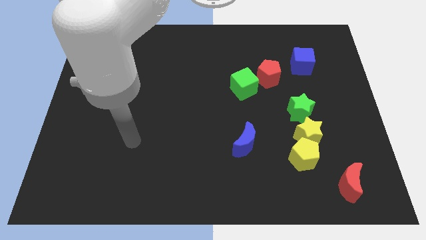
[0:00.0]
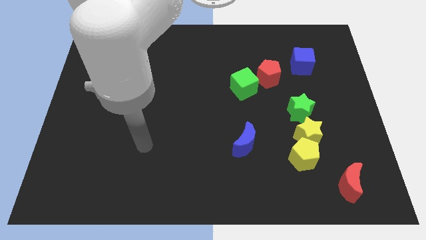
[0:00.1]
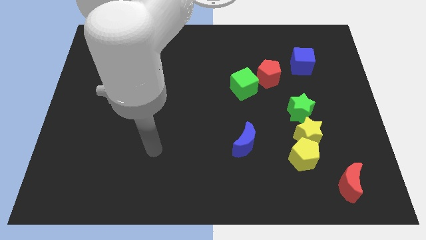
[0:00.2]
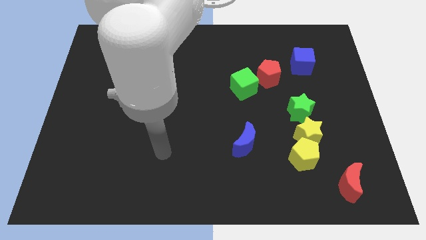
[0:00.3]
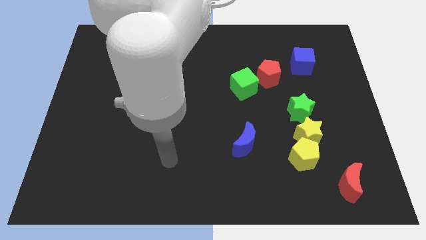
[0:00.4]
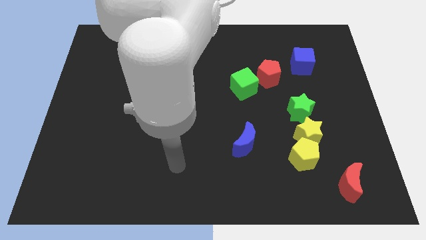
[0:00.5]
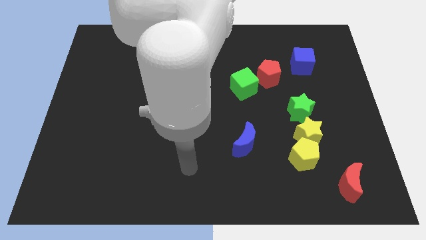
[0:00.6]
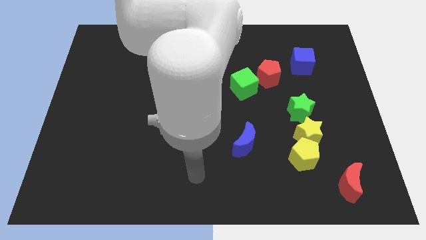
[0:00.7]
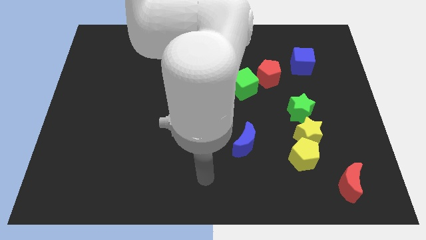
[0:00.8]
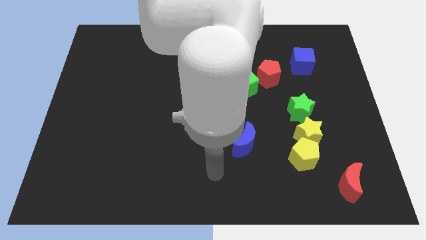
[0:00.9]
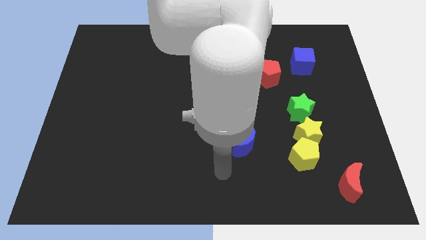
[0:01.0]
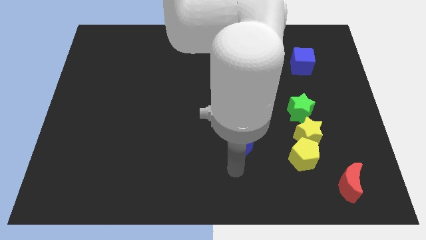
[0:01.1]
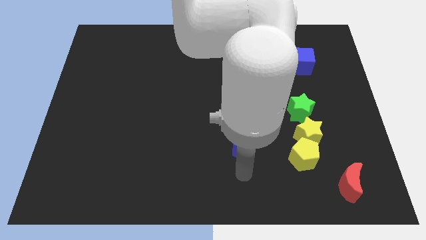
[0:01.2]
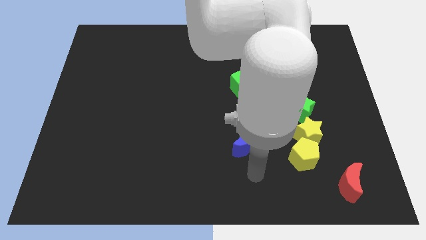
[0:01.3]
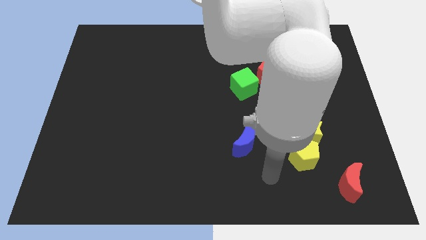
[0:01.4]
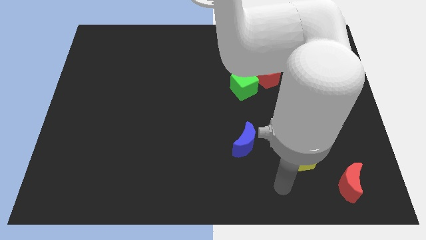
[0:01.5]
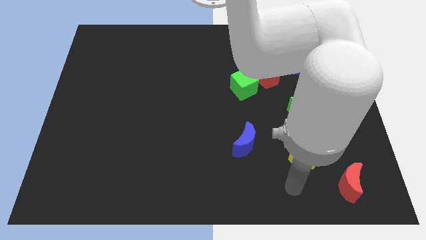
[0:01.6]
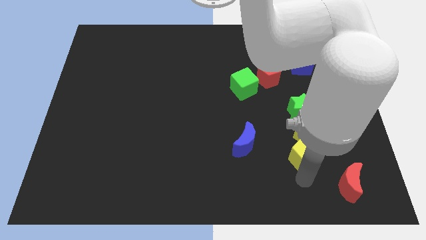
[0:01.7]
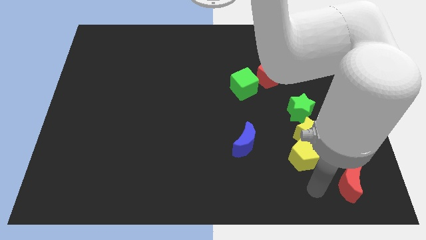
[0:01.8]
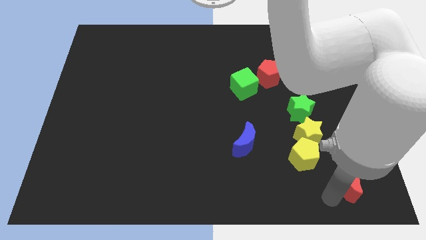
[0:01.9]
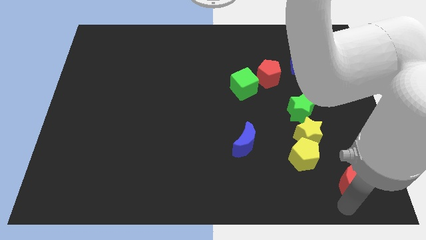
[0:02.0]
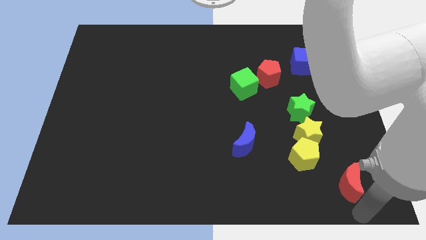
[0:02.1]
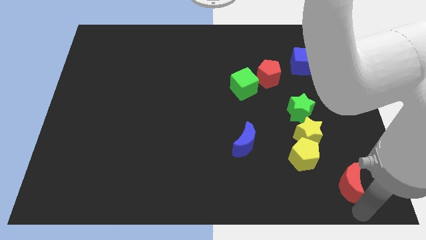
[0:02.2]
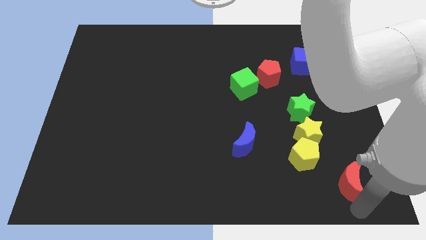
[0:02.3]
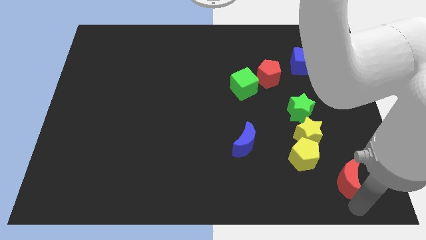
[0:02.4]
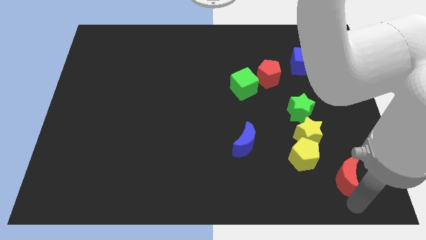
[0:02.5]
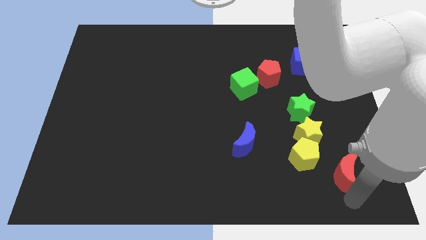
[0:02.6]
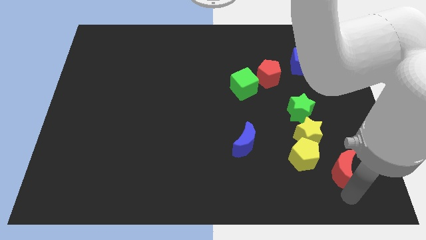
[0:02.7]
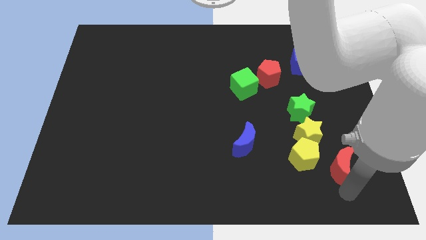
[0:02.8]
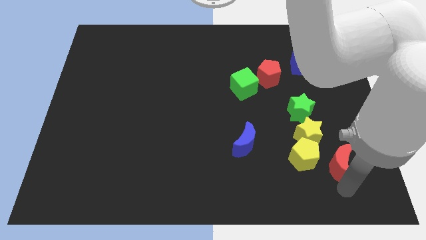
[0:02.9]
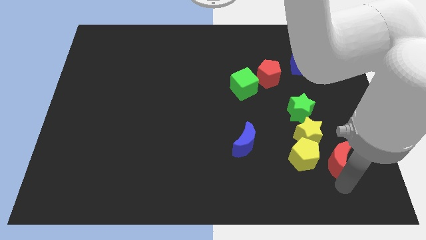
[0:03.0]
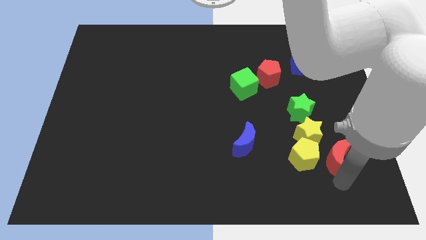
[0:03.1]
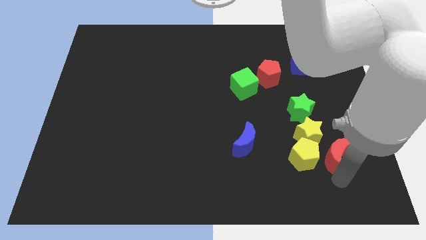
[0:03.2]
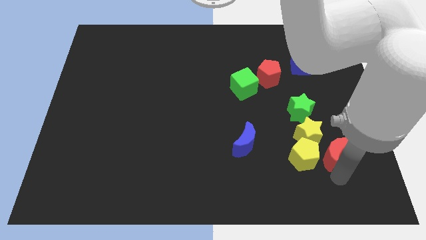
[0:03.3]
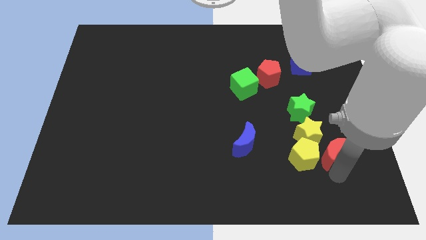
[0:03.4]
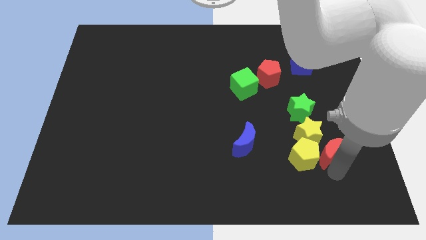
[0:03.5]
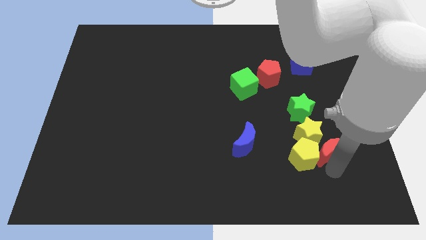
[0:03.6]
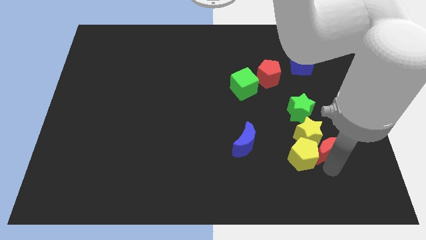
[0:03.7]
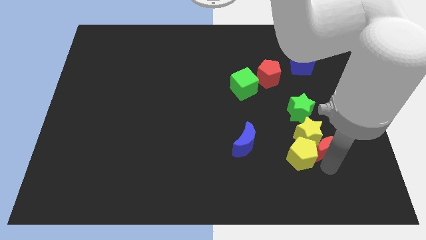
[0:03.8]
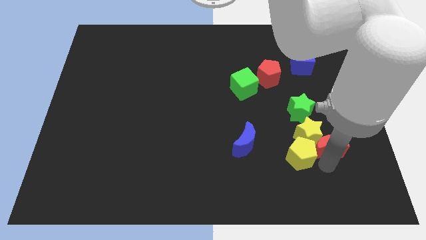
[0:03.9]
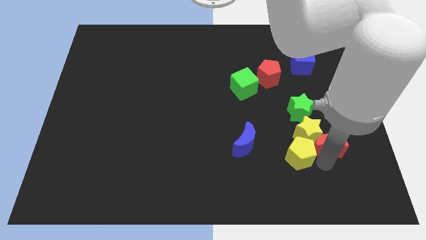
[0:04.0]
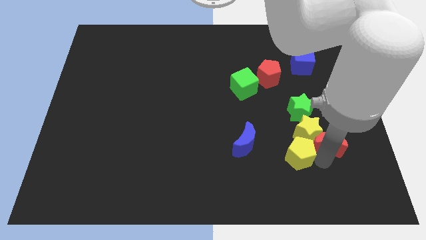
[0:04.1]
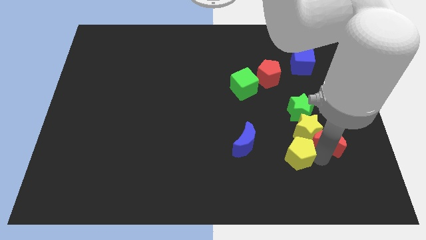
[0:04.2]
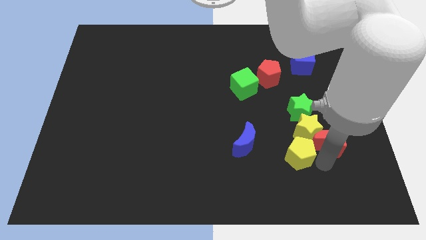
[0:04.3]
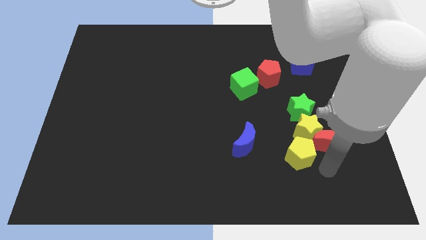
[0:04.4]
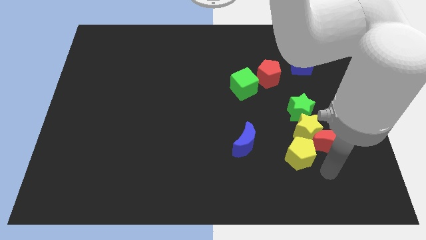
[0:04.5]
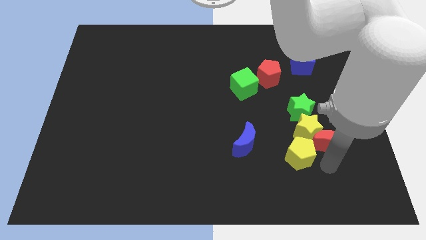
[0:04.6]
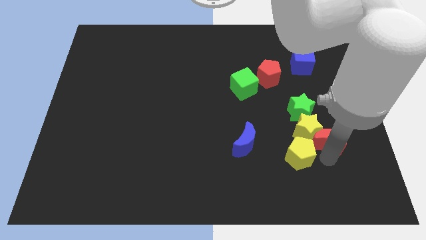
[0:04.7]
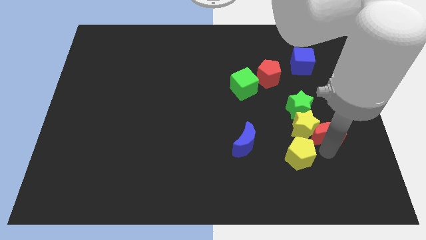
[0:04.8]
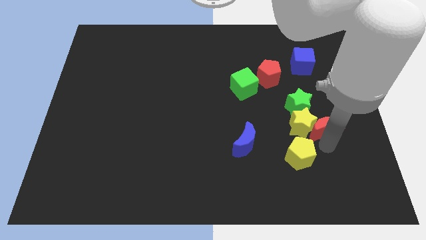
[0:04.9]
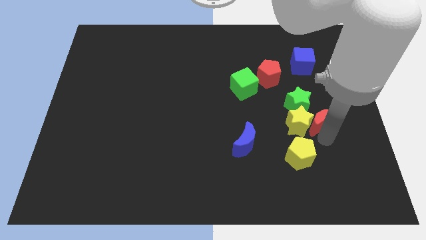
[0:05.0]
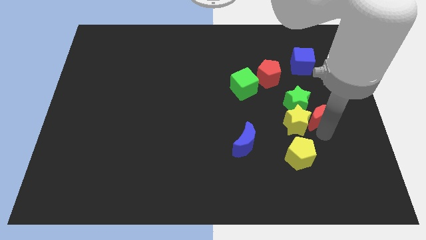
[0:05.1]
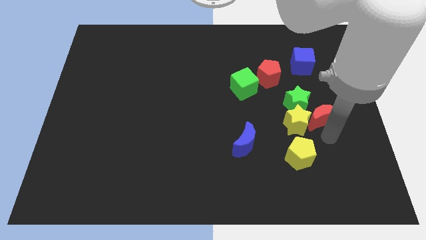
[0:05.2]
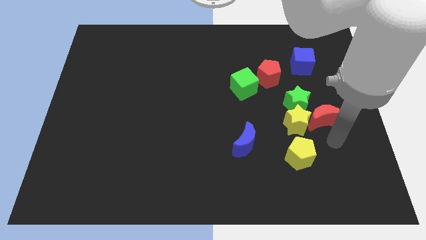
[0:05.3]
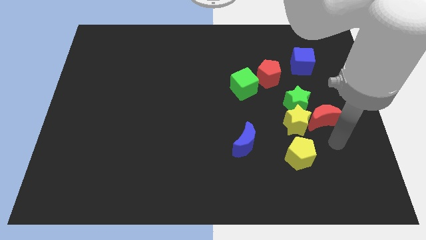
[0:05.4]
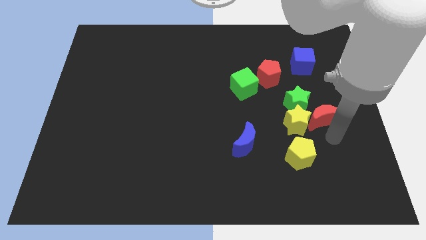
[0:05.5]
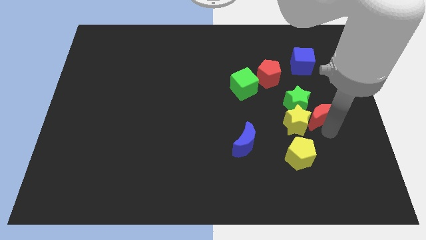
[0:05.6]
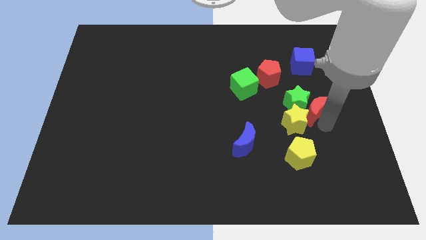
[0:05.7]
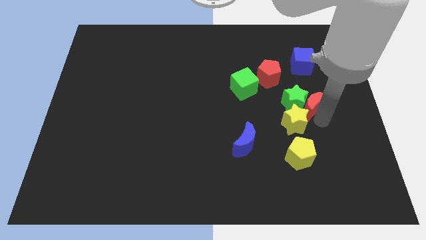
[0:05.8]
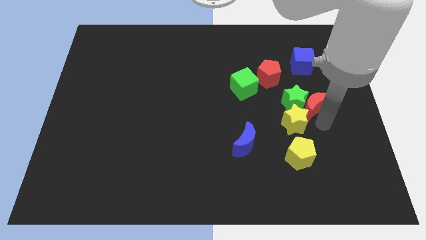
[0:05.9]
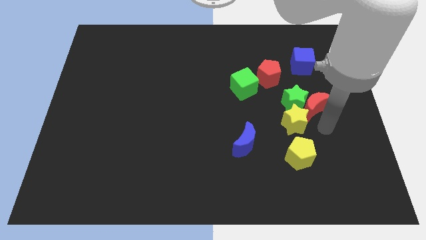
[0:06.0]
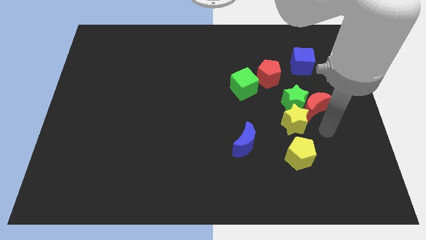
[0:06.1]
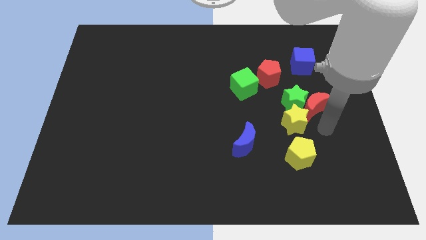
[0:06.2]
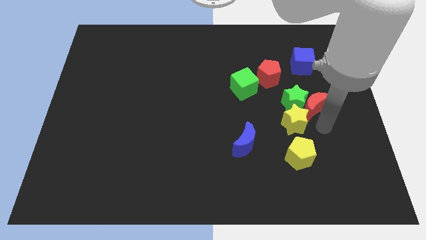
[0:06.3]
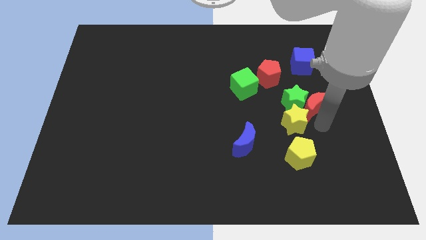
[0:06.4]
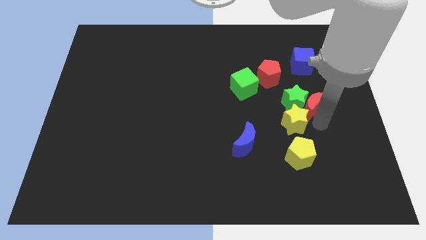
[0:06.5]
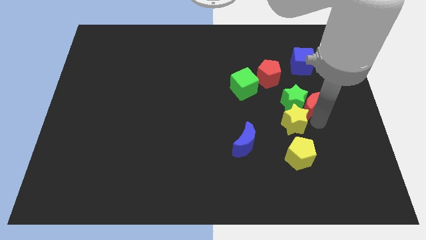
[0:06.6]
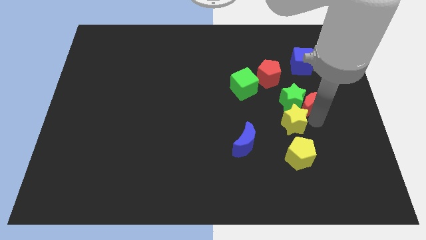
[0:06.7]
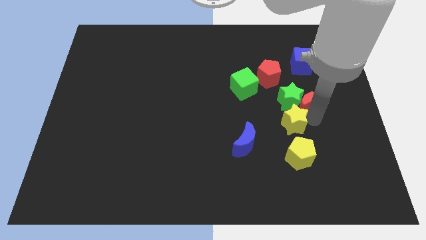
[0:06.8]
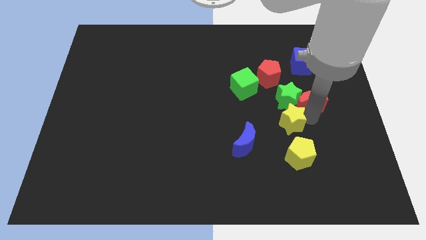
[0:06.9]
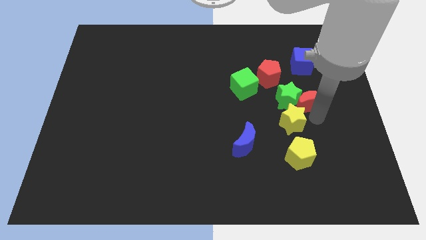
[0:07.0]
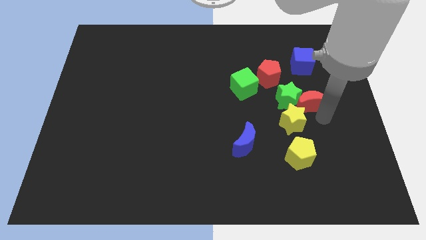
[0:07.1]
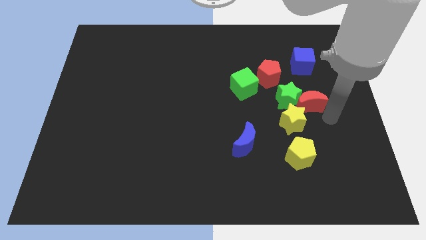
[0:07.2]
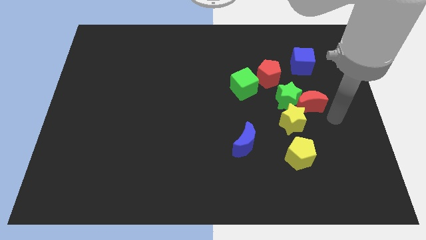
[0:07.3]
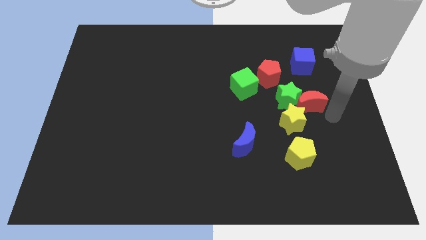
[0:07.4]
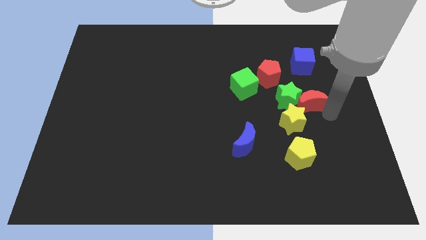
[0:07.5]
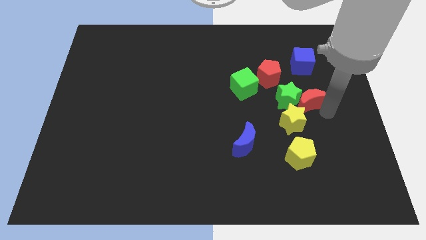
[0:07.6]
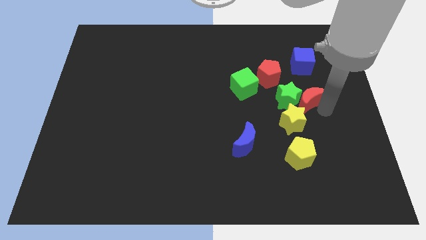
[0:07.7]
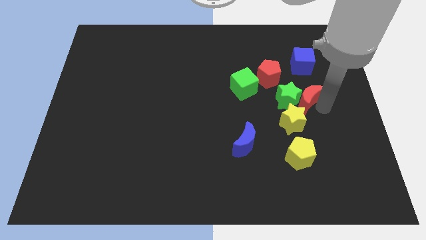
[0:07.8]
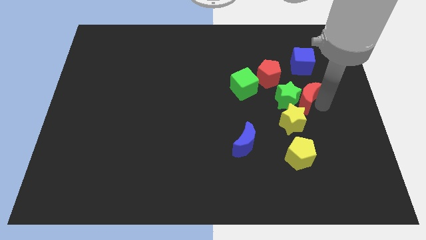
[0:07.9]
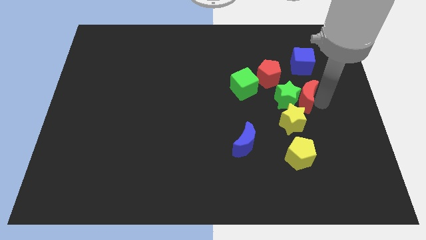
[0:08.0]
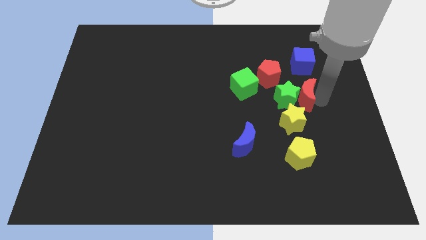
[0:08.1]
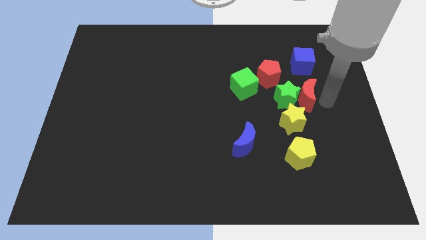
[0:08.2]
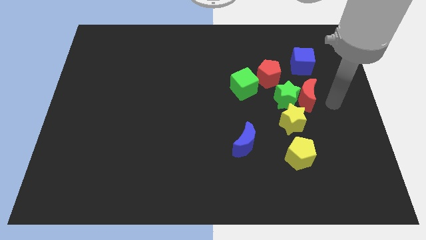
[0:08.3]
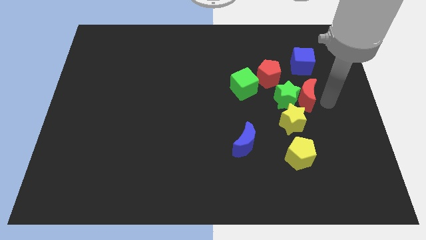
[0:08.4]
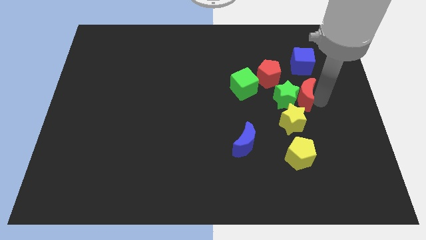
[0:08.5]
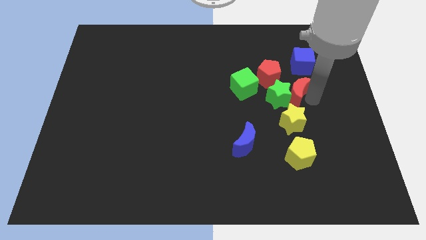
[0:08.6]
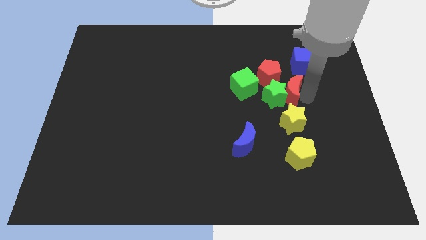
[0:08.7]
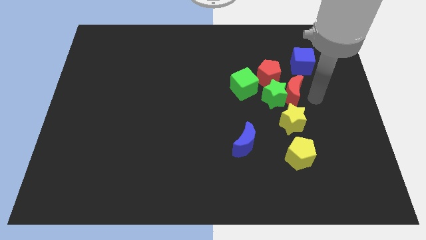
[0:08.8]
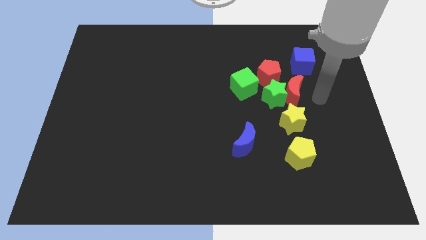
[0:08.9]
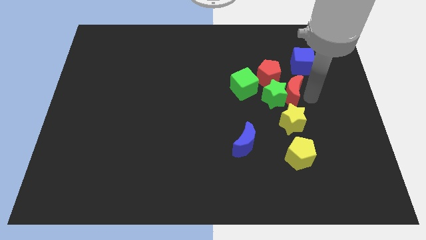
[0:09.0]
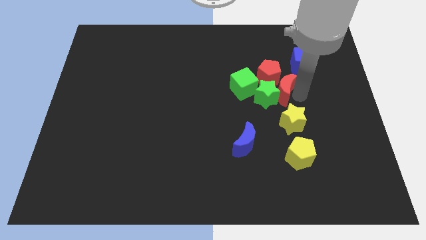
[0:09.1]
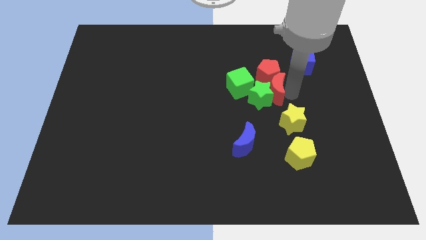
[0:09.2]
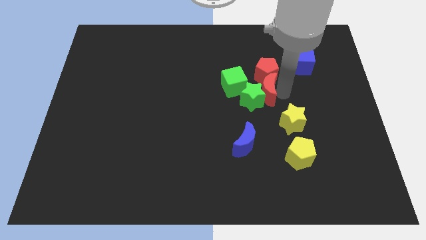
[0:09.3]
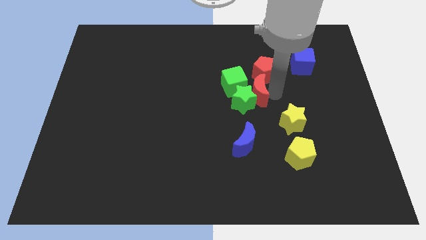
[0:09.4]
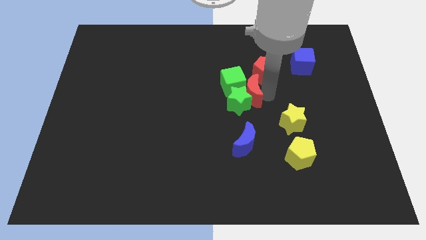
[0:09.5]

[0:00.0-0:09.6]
push the red moon to the green cube
